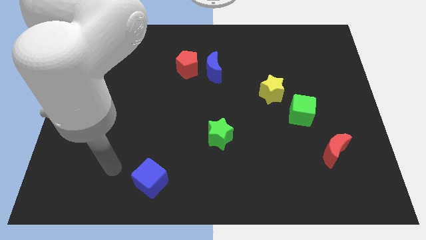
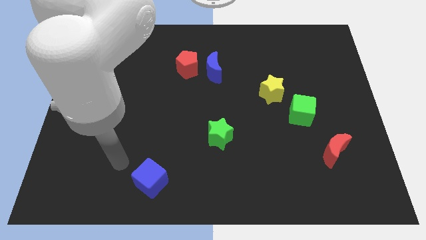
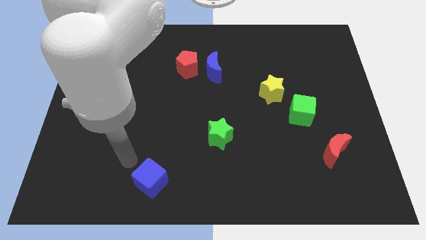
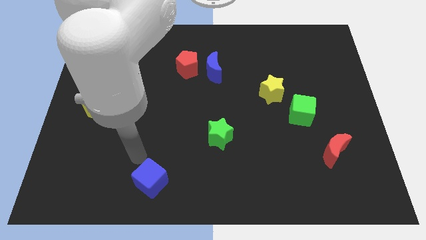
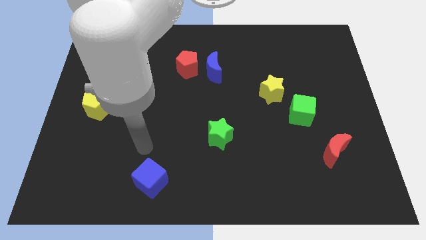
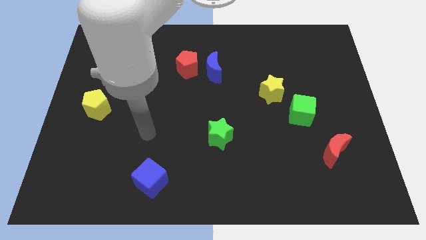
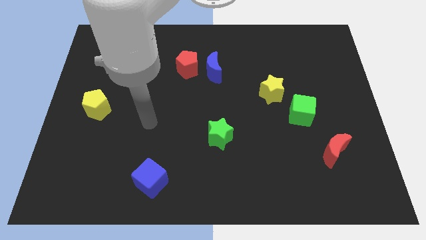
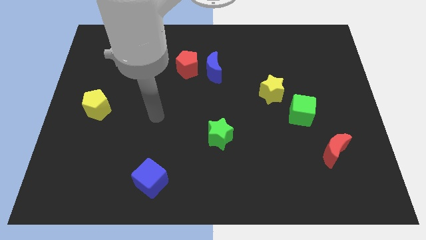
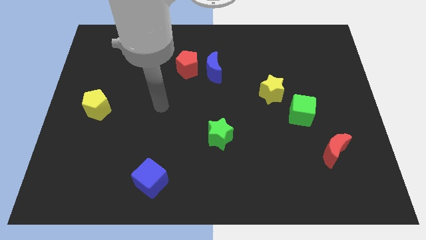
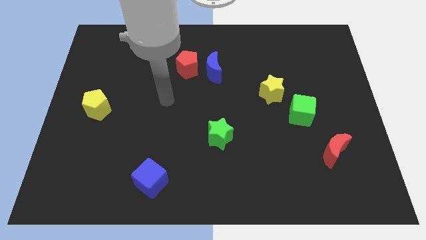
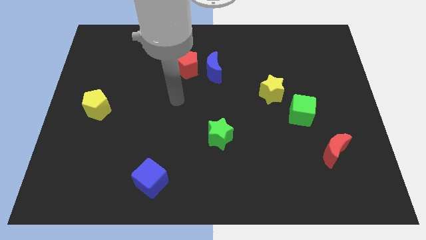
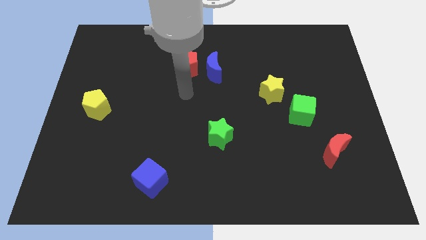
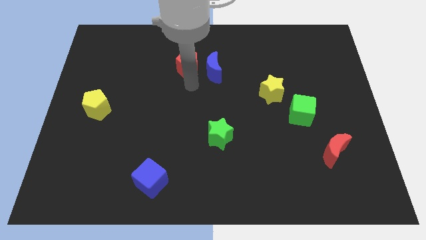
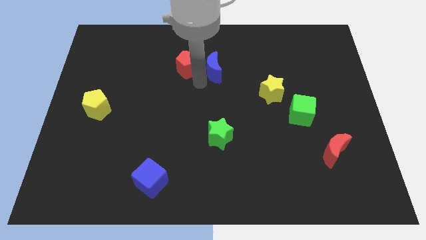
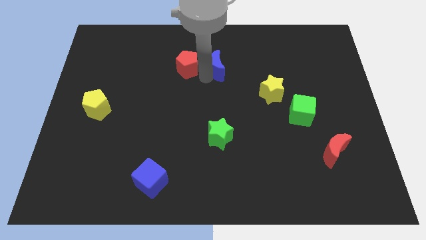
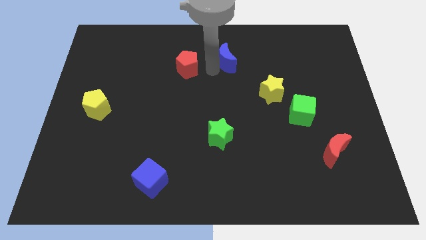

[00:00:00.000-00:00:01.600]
pull the red pentagon apart from the blue moon

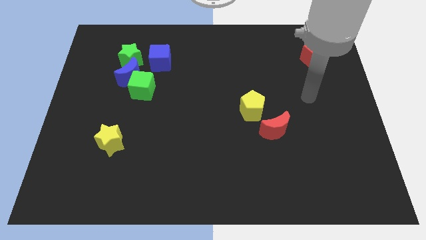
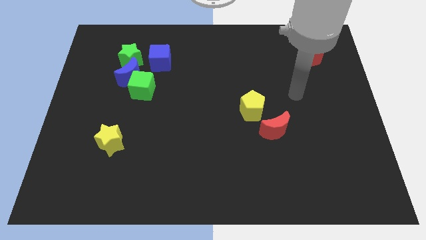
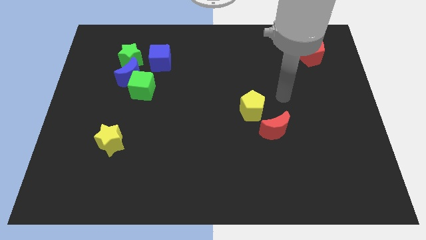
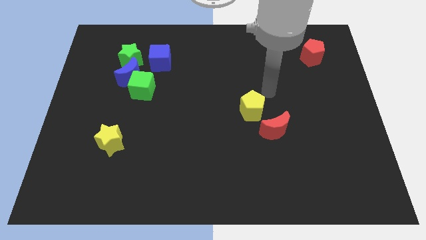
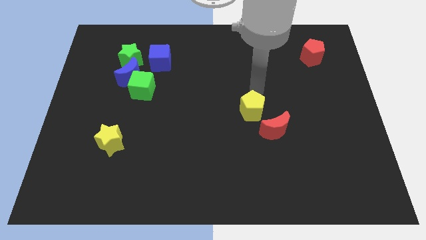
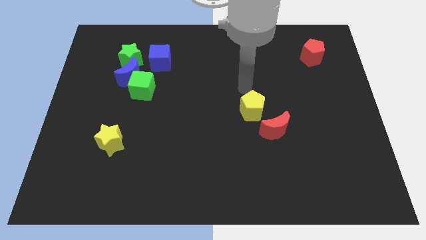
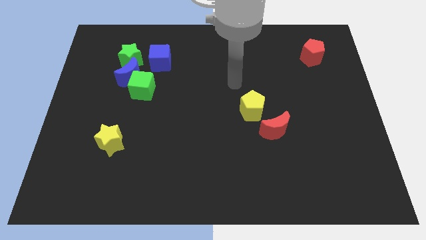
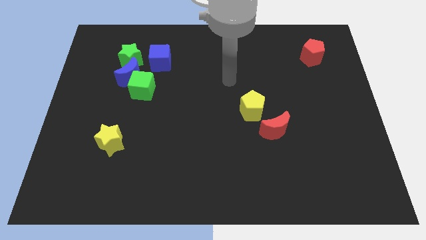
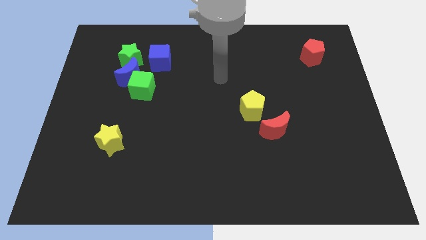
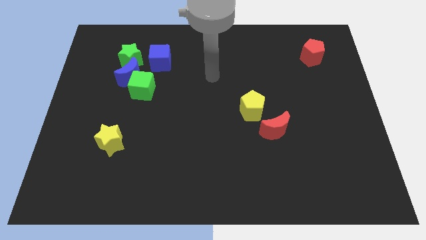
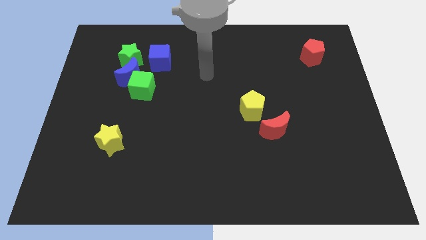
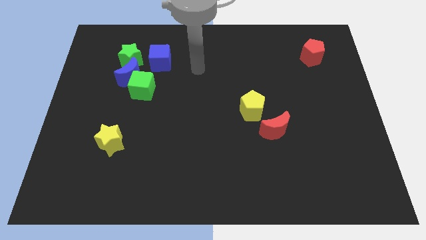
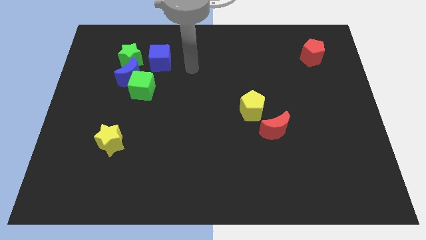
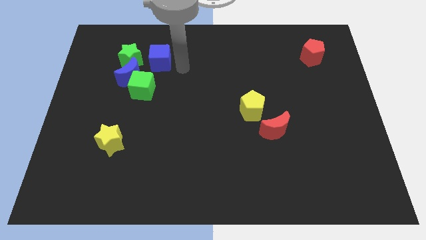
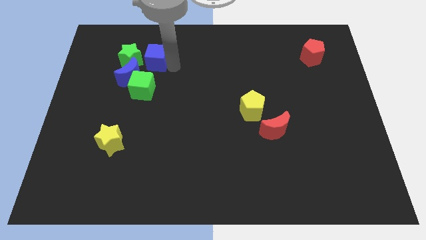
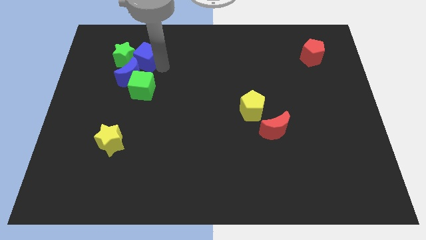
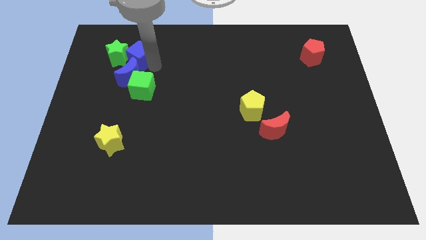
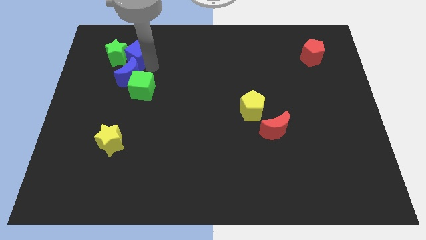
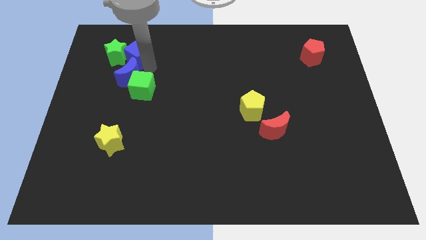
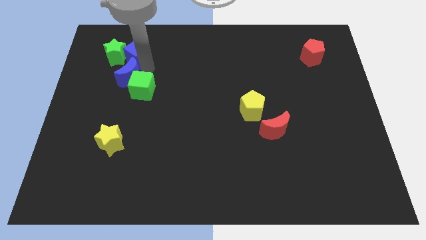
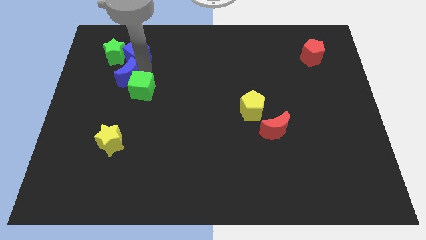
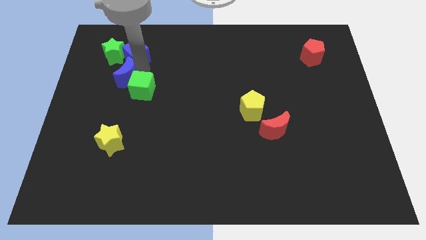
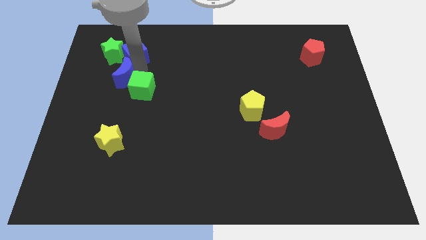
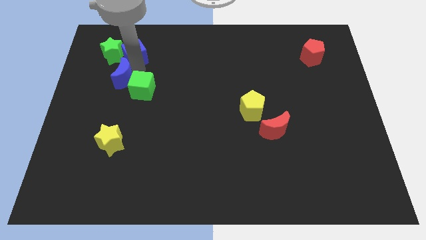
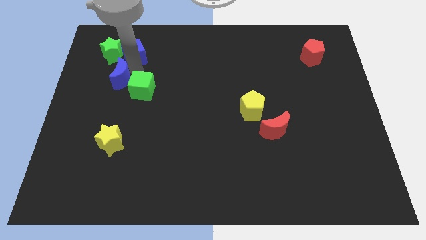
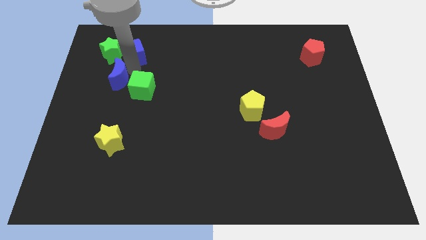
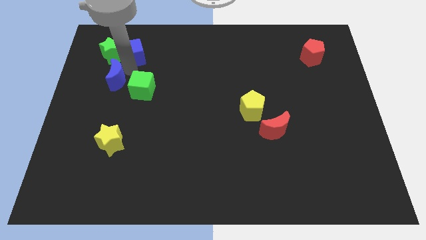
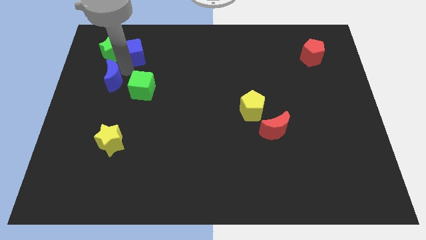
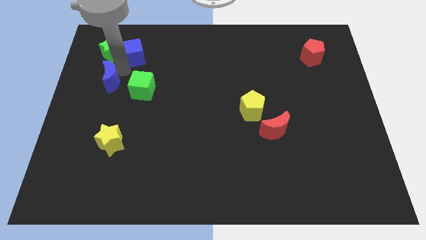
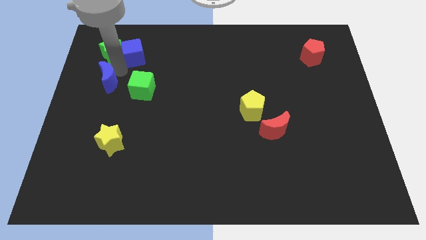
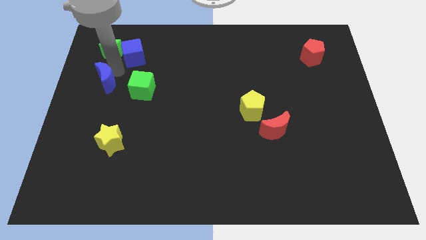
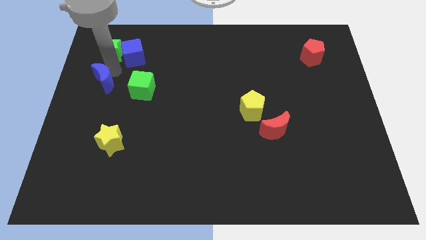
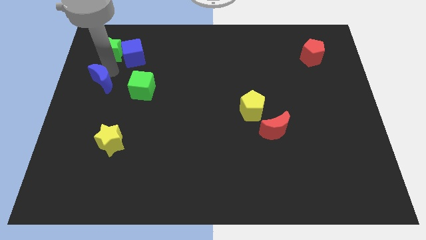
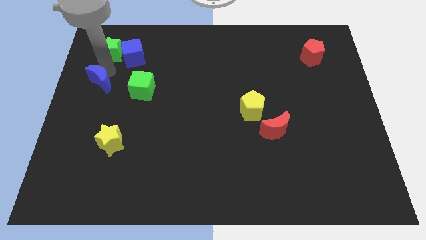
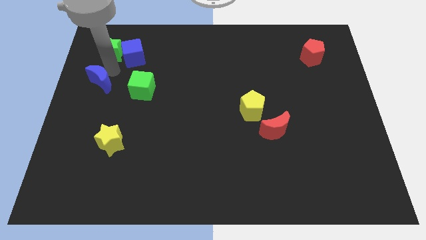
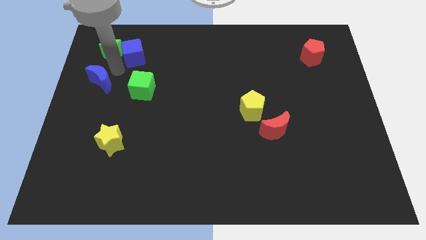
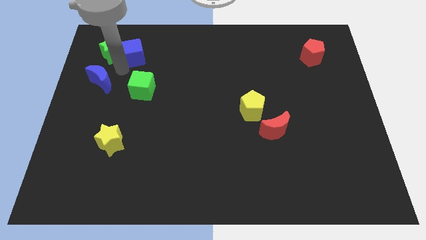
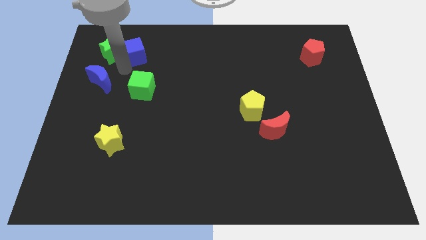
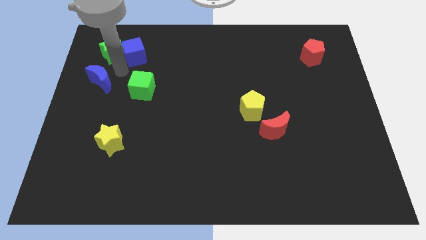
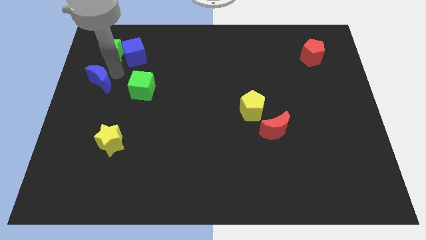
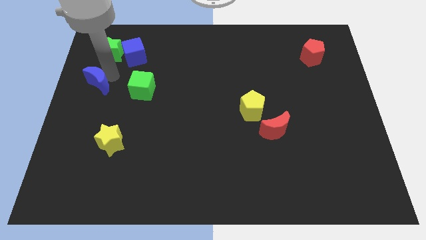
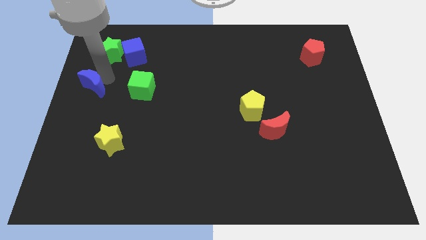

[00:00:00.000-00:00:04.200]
separate the blue moon from the group

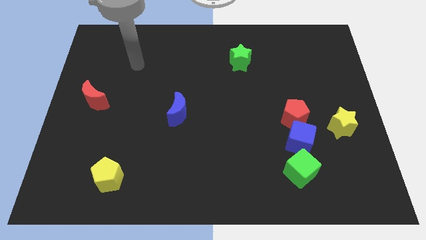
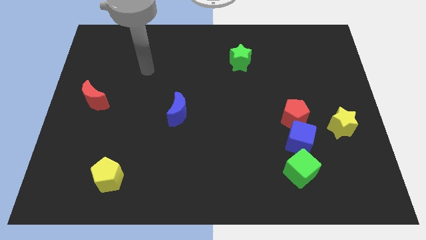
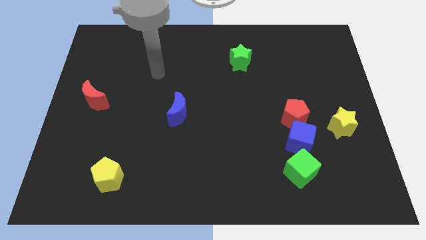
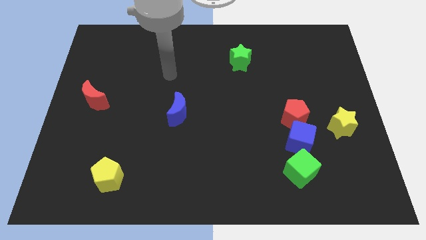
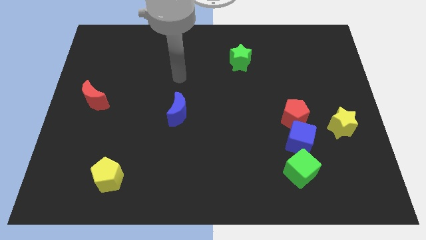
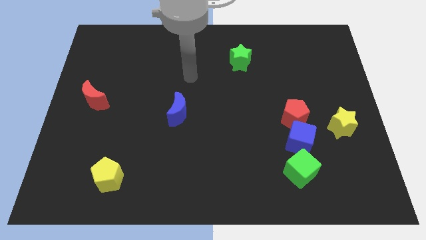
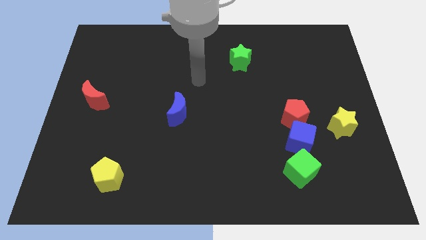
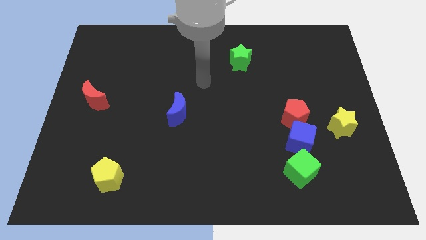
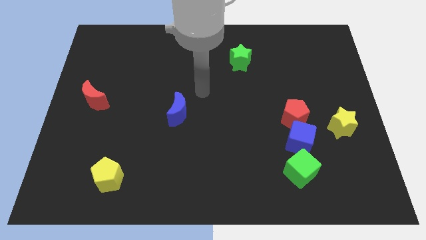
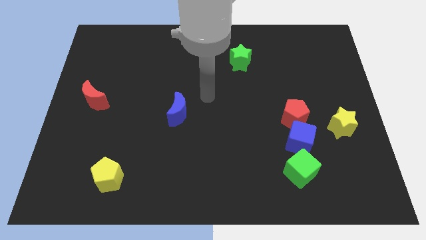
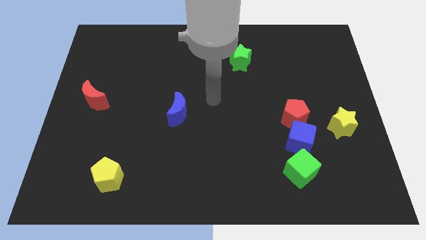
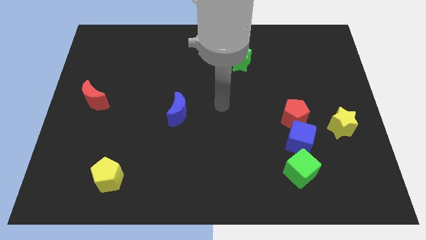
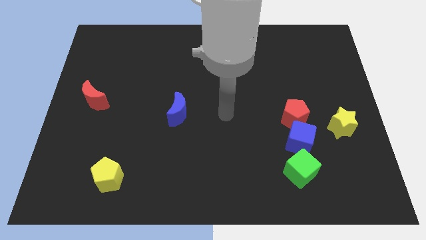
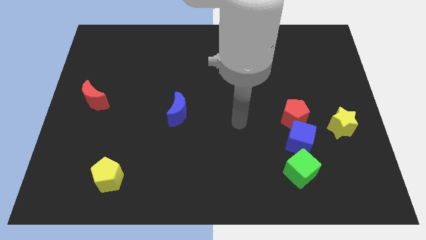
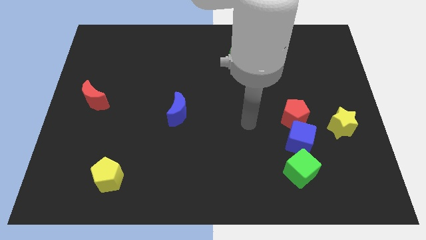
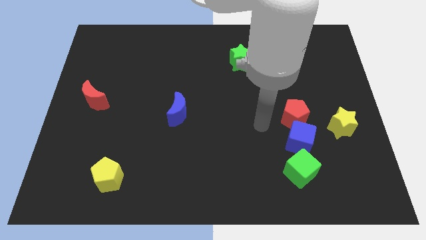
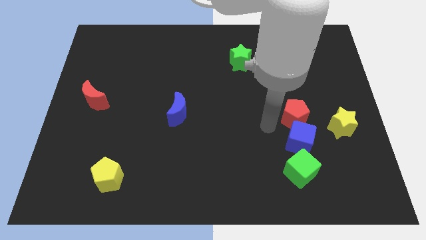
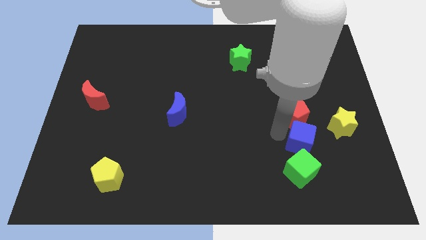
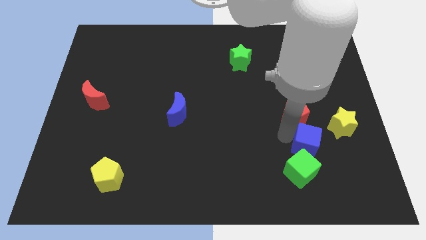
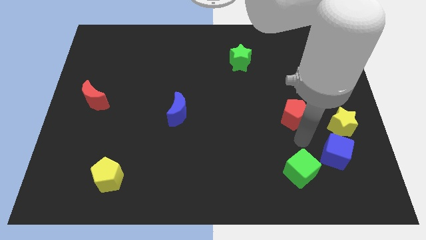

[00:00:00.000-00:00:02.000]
pull the red pentagon apart from the blue cube

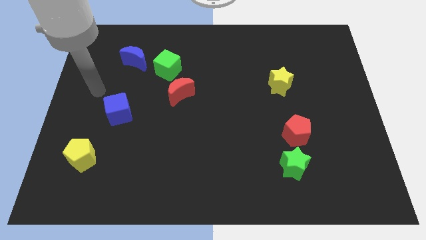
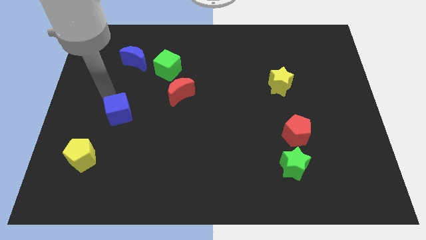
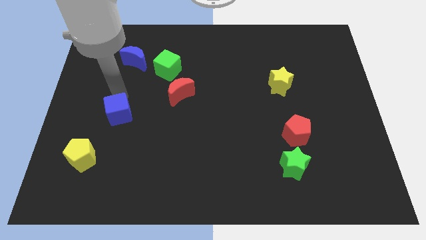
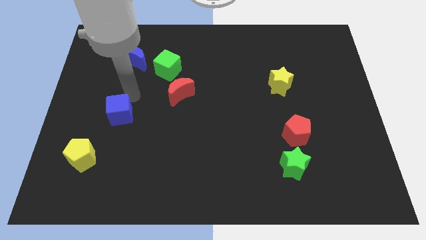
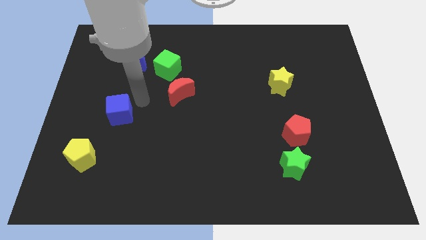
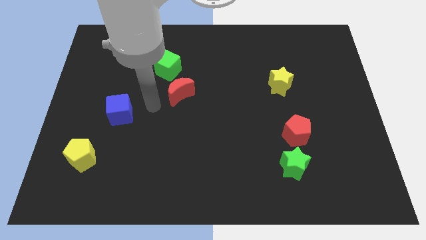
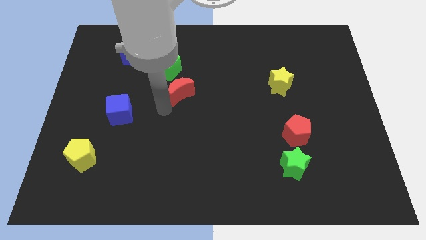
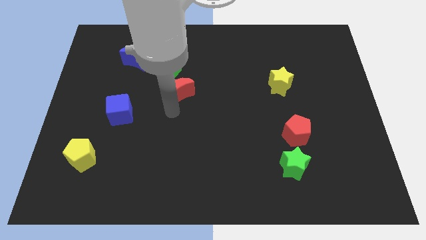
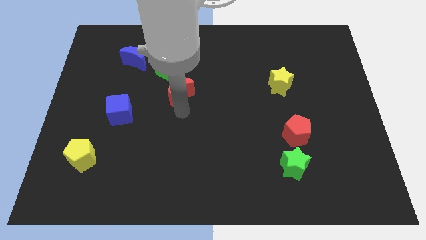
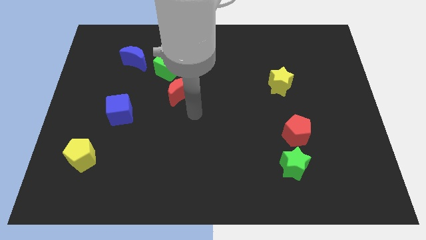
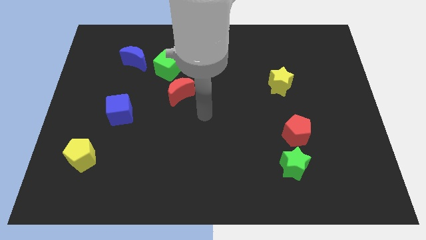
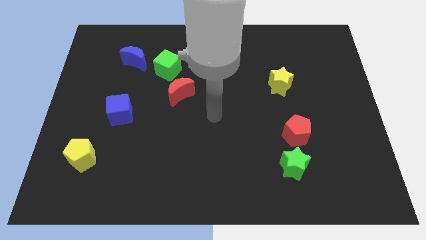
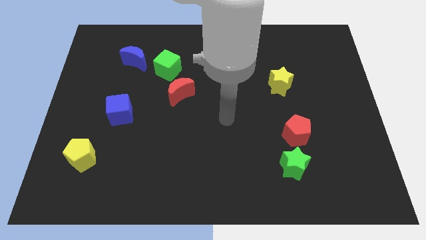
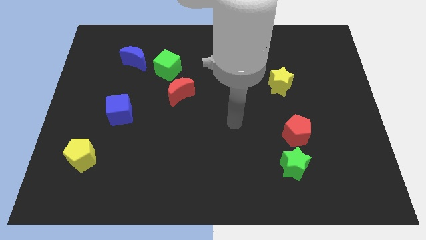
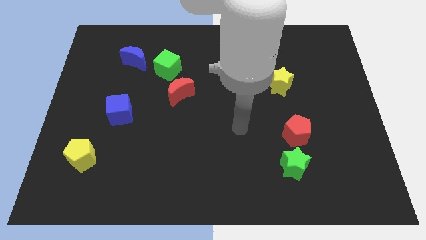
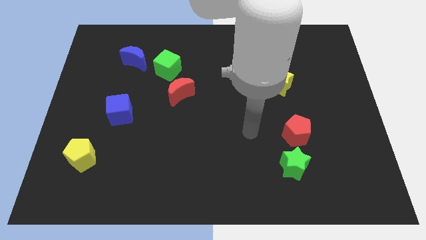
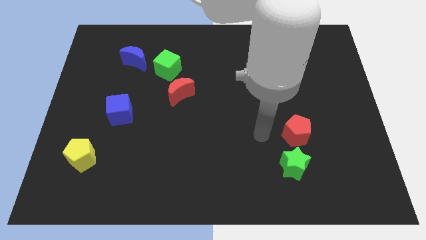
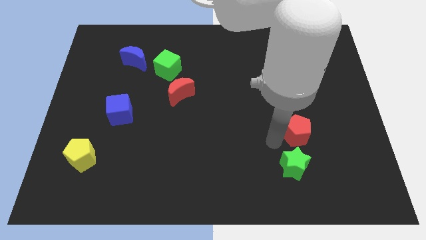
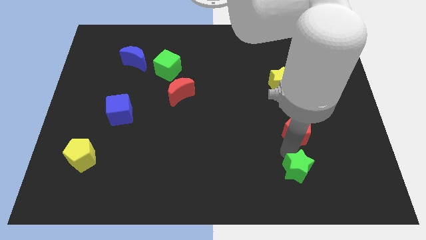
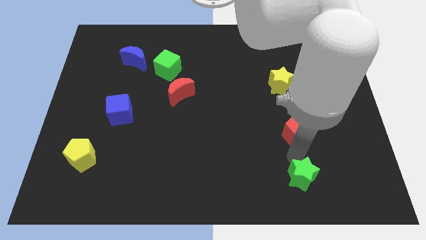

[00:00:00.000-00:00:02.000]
pull the red pentagon apart from the green star
